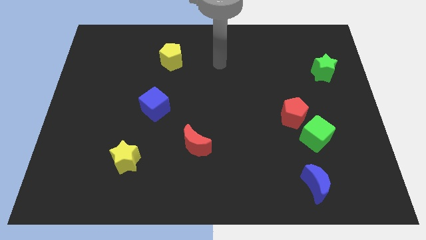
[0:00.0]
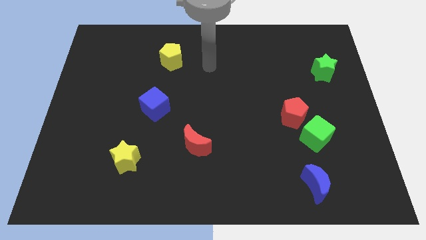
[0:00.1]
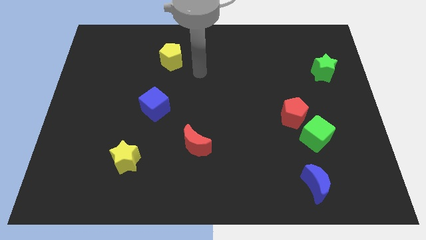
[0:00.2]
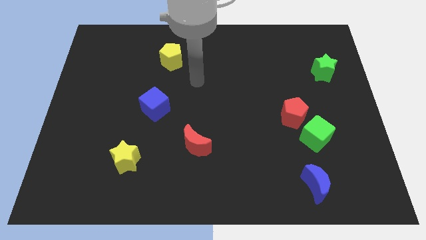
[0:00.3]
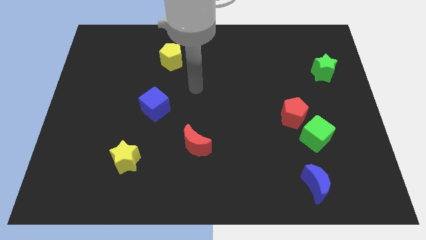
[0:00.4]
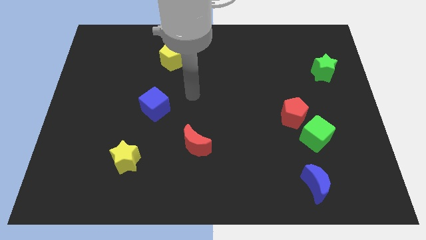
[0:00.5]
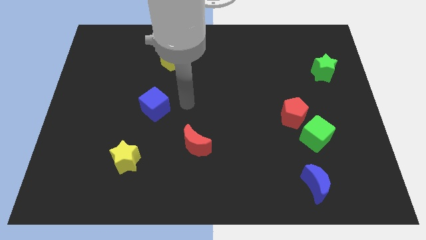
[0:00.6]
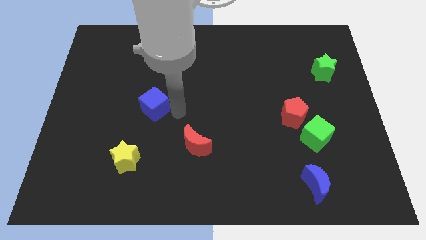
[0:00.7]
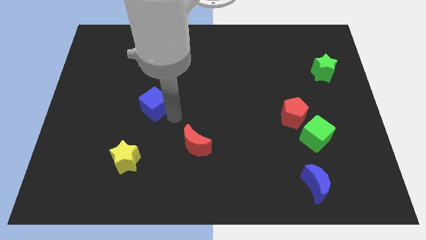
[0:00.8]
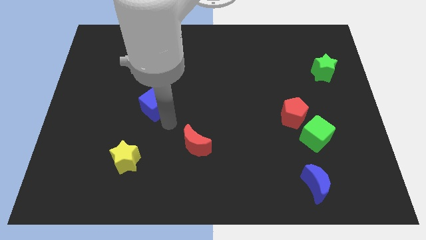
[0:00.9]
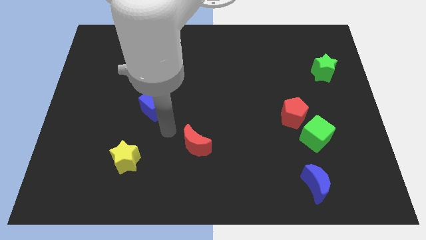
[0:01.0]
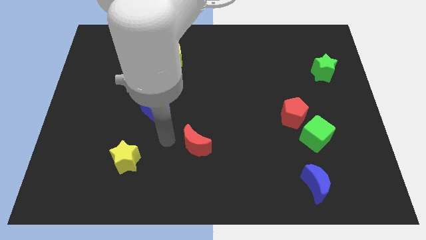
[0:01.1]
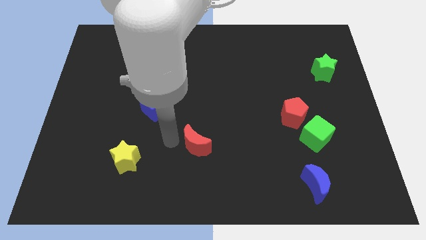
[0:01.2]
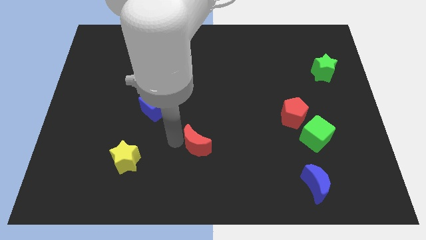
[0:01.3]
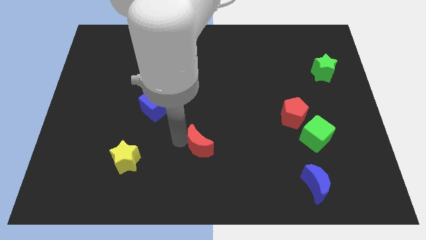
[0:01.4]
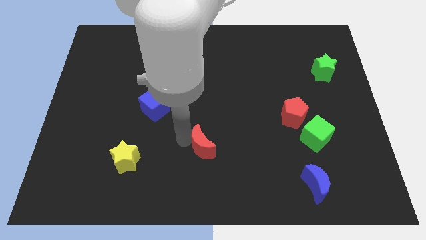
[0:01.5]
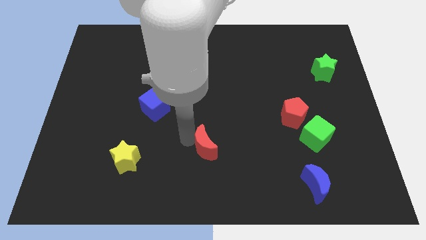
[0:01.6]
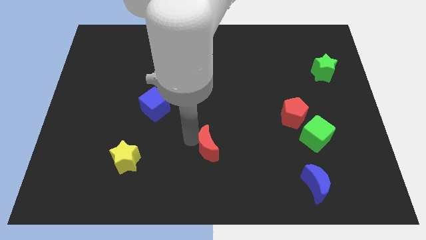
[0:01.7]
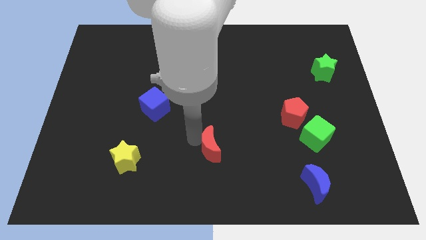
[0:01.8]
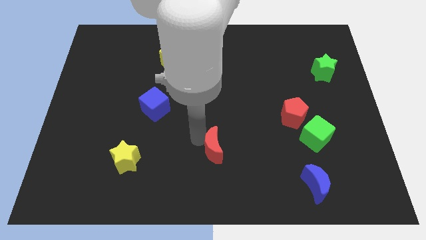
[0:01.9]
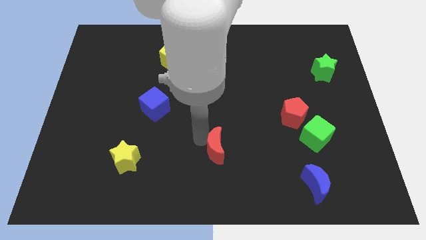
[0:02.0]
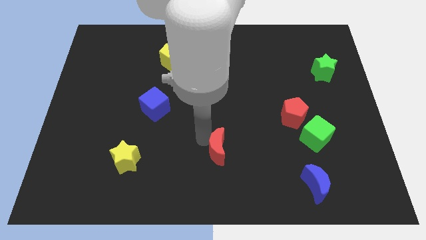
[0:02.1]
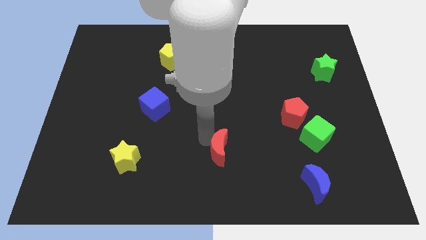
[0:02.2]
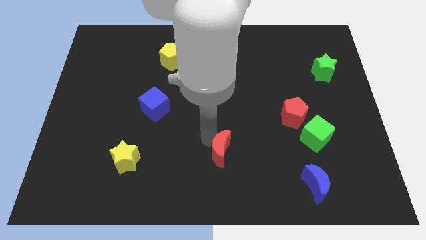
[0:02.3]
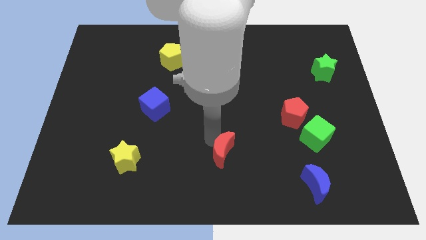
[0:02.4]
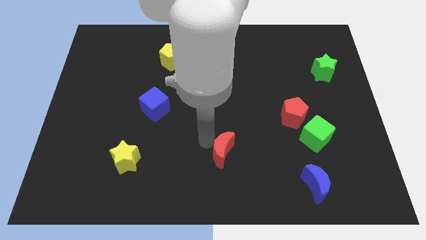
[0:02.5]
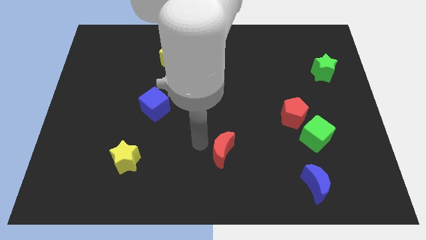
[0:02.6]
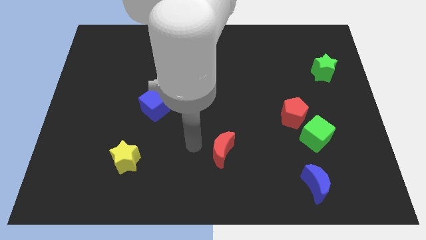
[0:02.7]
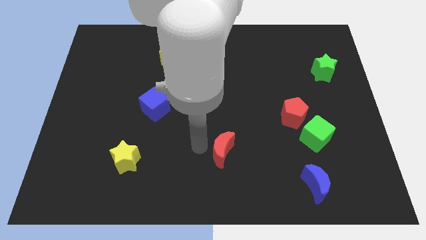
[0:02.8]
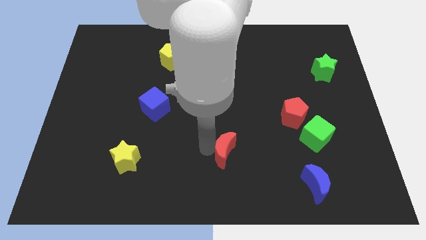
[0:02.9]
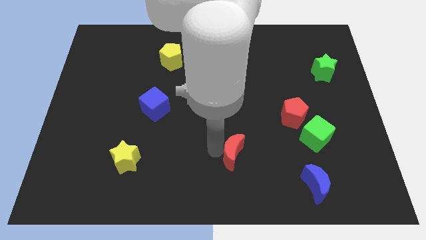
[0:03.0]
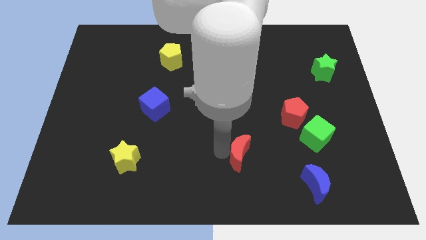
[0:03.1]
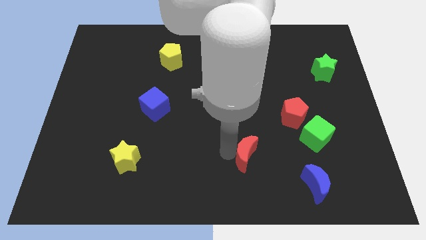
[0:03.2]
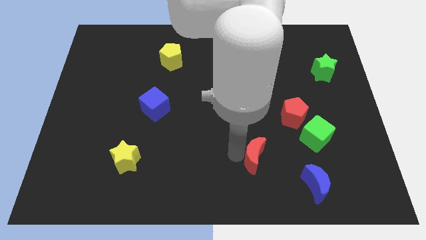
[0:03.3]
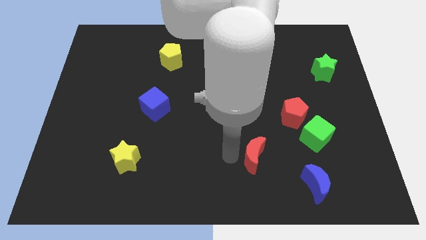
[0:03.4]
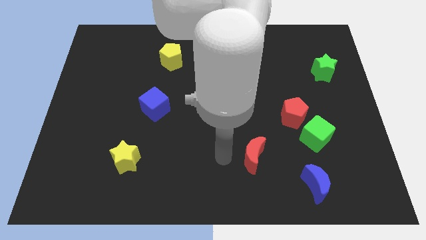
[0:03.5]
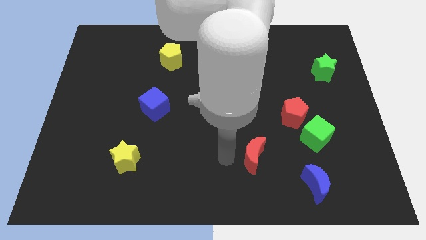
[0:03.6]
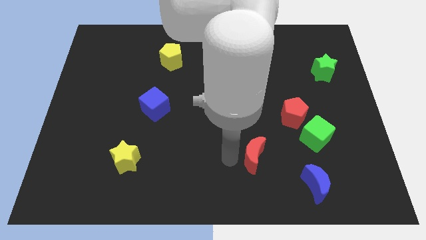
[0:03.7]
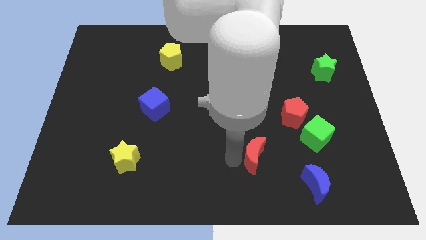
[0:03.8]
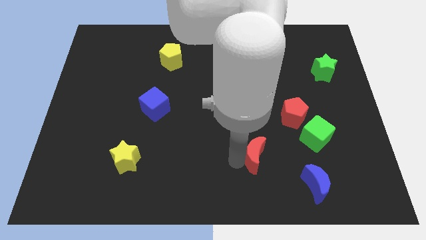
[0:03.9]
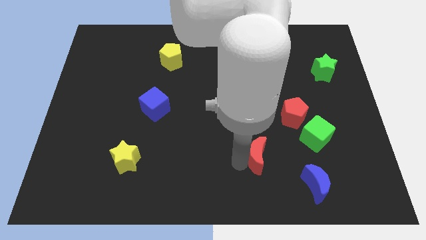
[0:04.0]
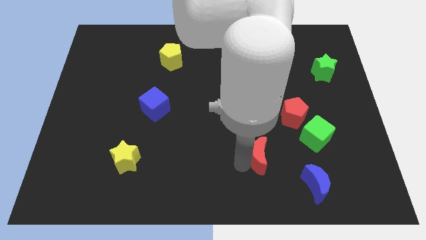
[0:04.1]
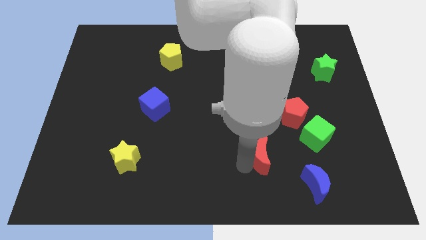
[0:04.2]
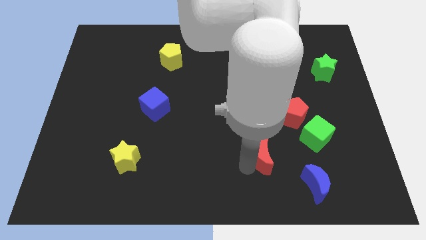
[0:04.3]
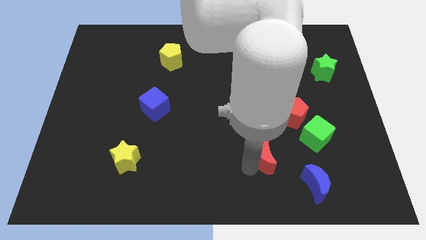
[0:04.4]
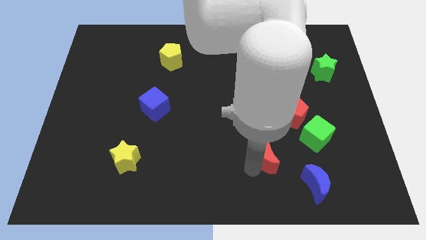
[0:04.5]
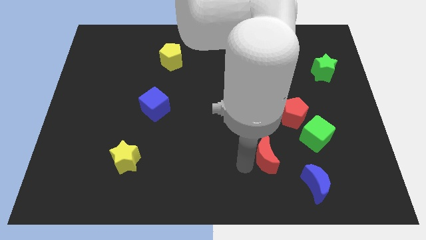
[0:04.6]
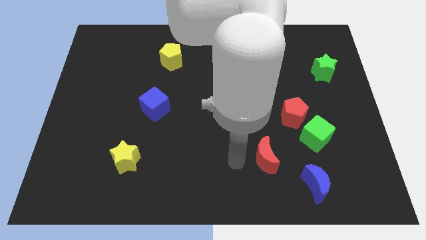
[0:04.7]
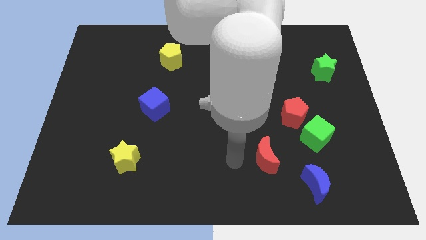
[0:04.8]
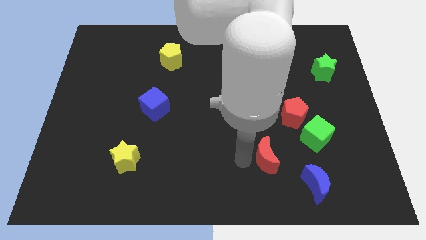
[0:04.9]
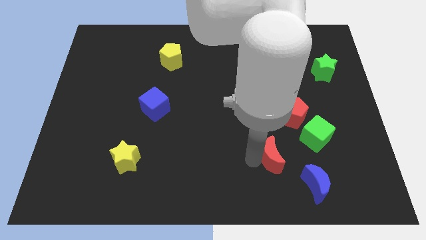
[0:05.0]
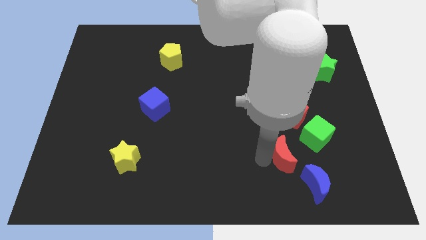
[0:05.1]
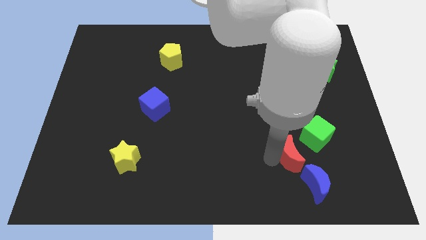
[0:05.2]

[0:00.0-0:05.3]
move the red moon to the right

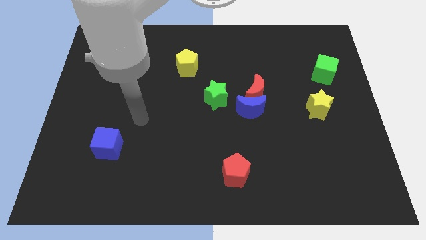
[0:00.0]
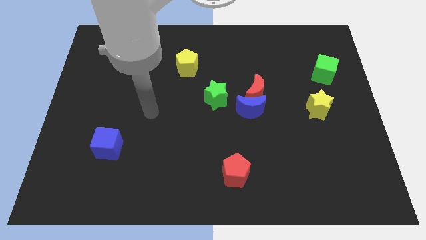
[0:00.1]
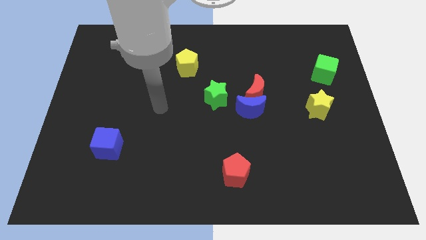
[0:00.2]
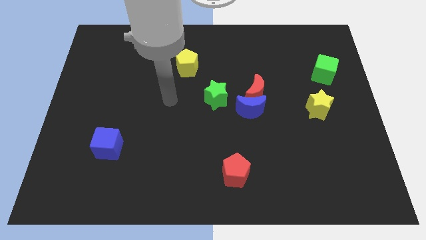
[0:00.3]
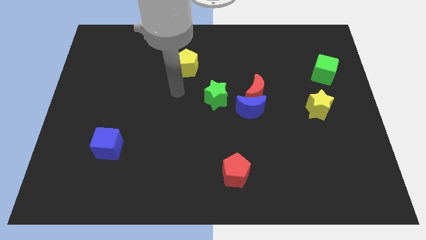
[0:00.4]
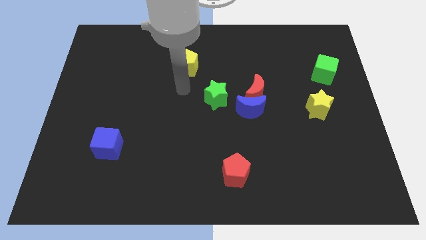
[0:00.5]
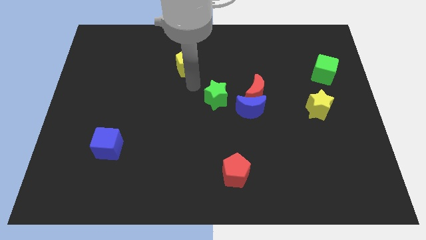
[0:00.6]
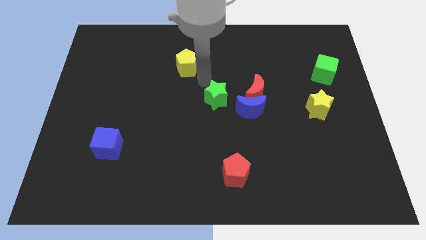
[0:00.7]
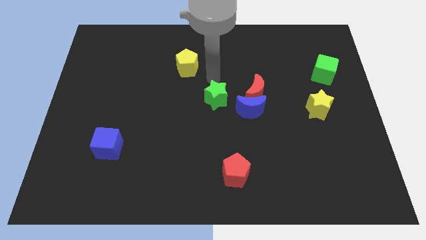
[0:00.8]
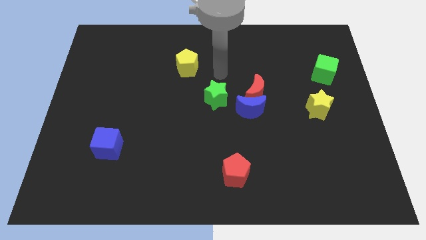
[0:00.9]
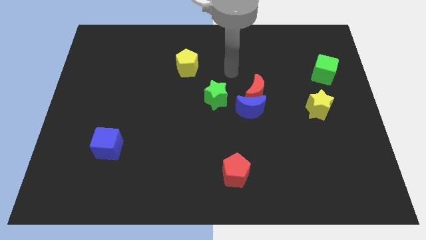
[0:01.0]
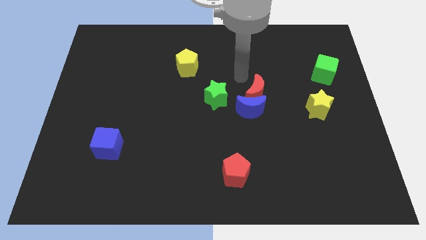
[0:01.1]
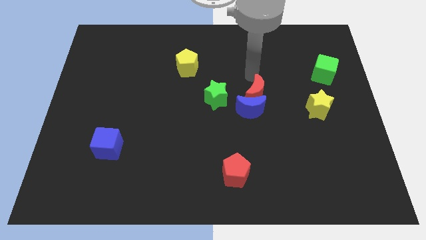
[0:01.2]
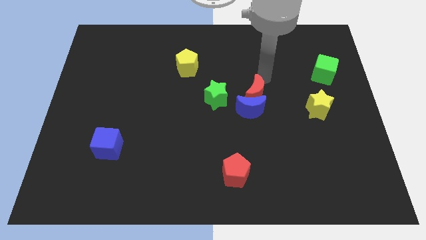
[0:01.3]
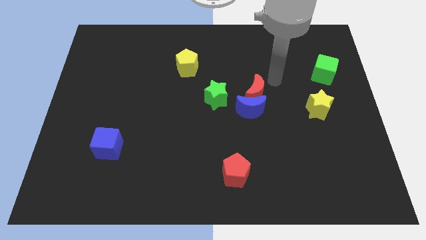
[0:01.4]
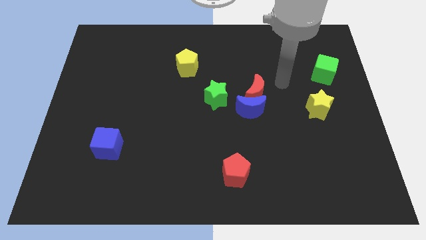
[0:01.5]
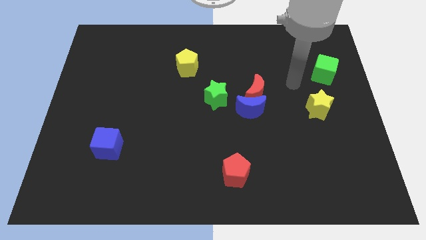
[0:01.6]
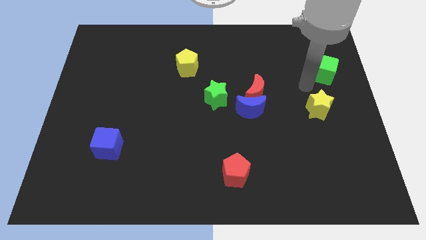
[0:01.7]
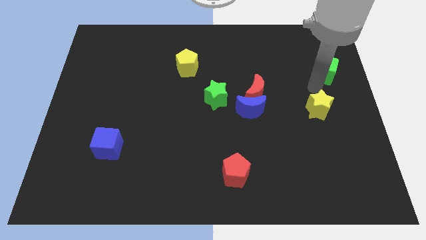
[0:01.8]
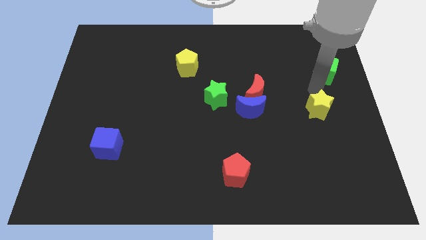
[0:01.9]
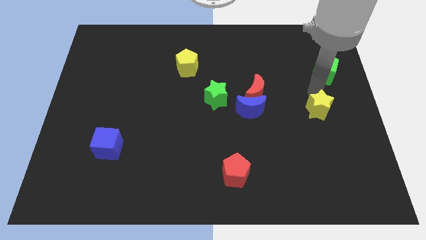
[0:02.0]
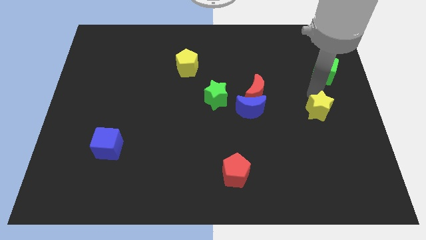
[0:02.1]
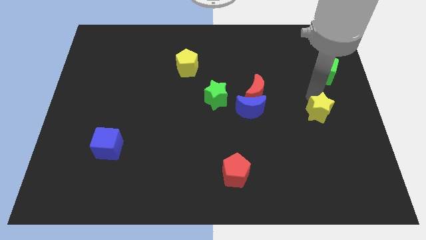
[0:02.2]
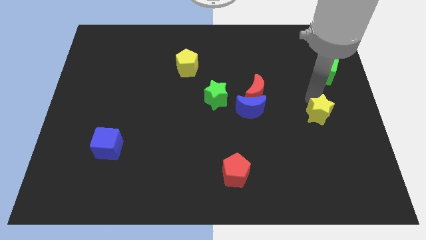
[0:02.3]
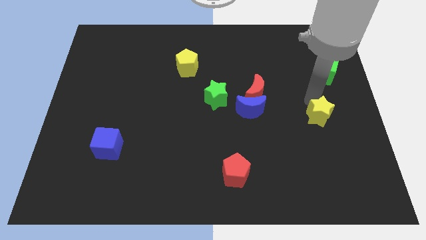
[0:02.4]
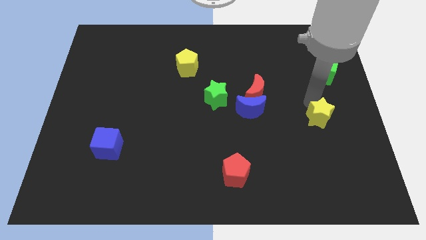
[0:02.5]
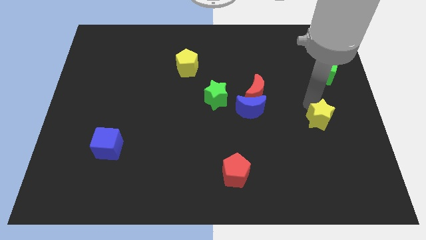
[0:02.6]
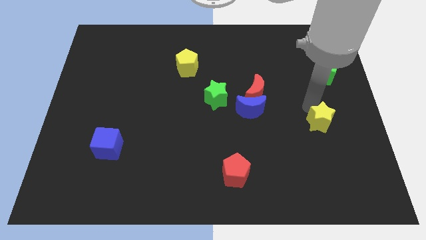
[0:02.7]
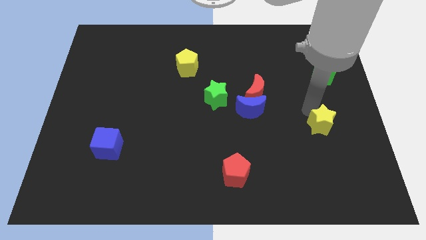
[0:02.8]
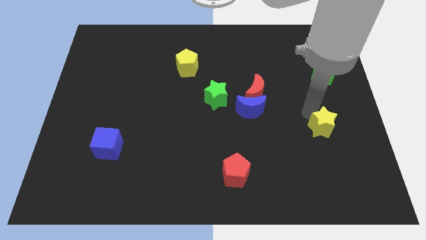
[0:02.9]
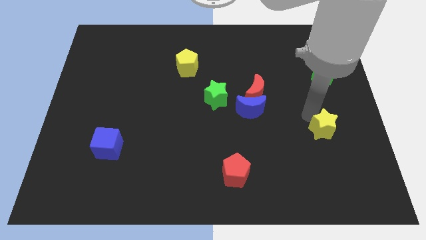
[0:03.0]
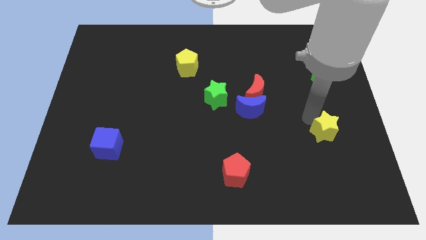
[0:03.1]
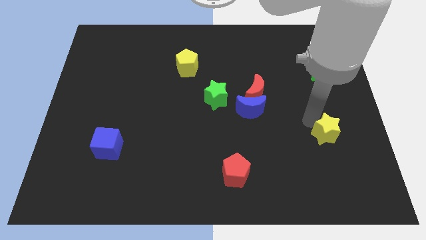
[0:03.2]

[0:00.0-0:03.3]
move the yellow star slightly down
